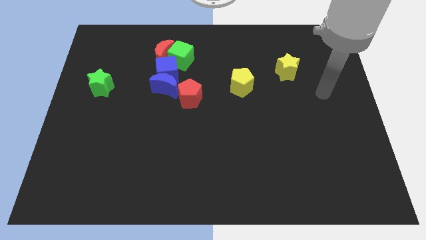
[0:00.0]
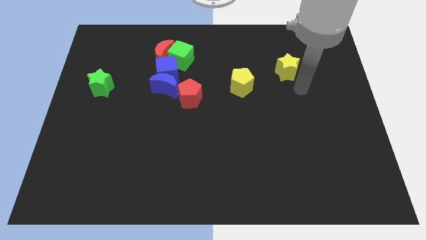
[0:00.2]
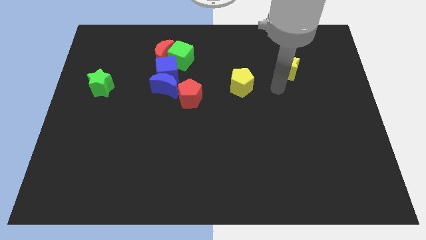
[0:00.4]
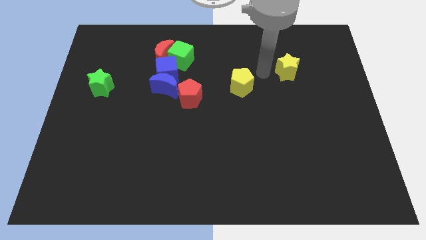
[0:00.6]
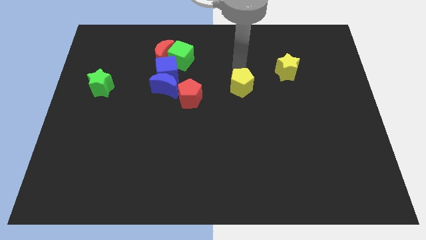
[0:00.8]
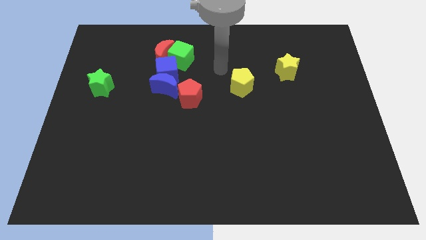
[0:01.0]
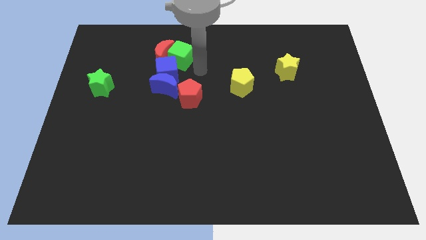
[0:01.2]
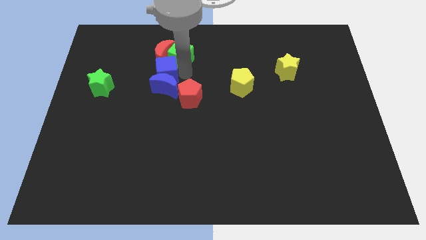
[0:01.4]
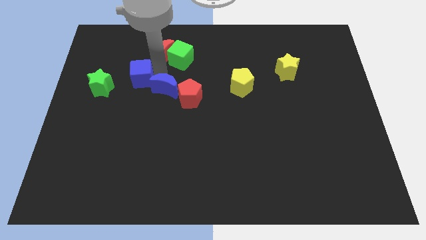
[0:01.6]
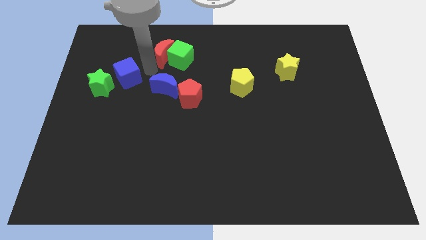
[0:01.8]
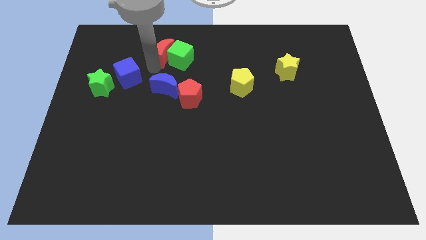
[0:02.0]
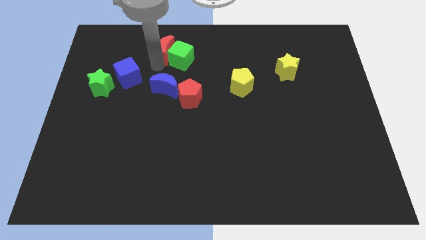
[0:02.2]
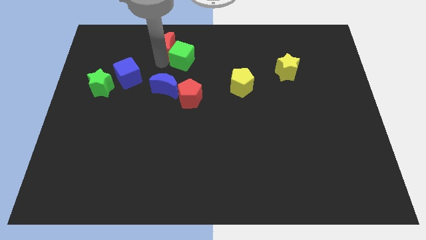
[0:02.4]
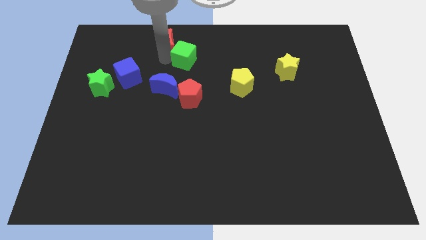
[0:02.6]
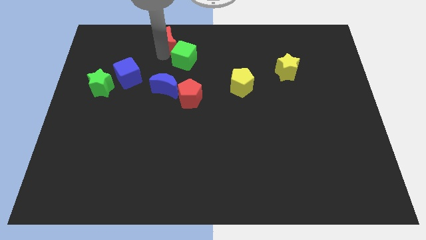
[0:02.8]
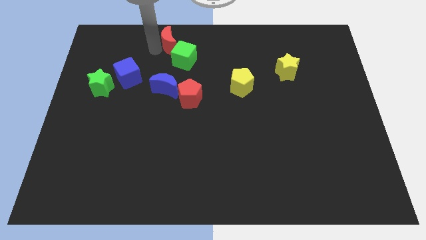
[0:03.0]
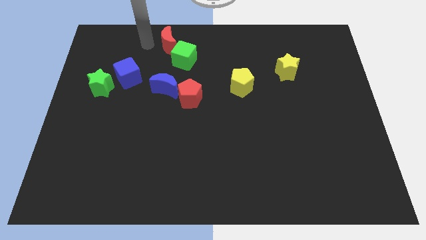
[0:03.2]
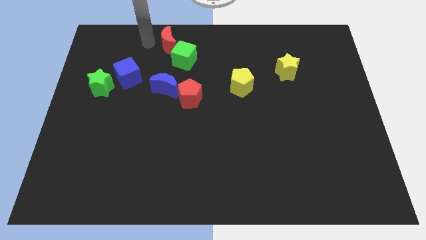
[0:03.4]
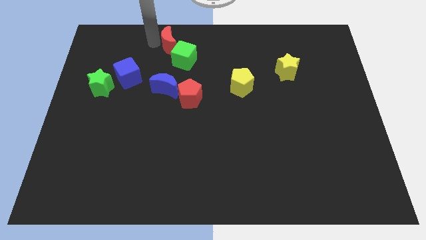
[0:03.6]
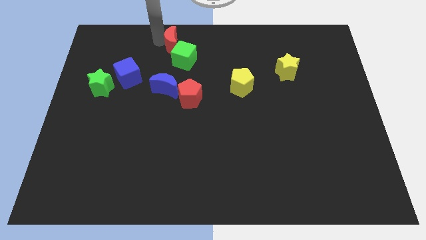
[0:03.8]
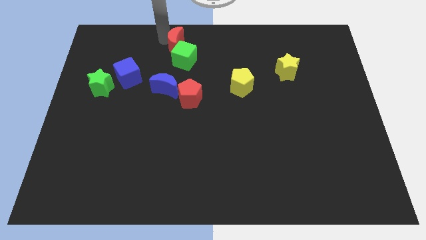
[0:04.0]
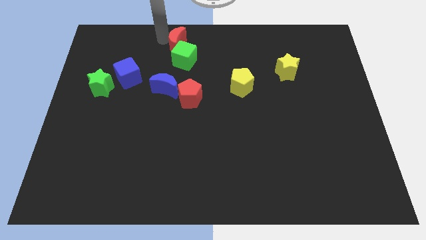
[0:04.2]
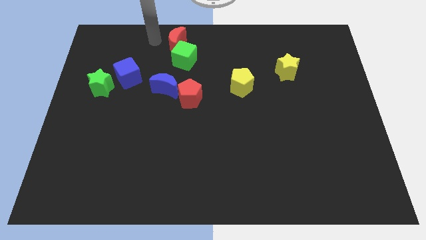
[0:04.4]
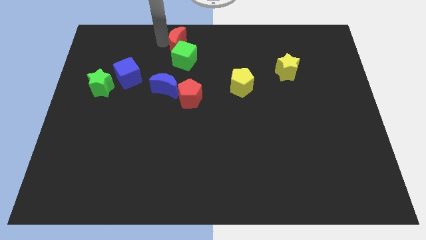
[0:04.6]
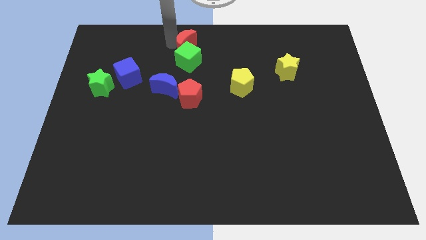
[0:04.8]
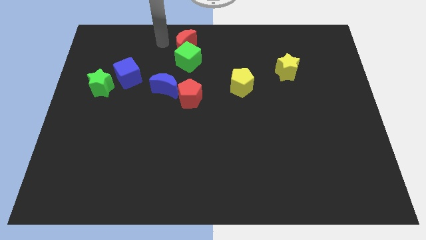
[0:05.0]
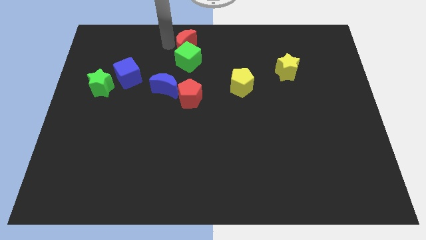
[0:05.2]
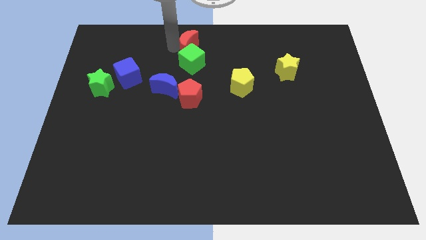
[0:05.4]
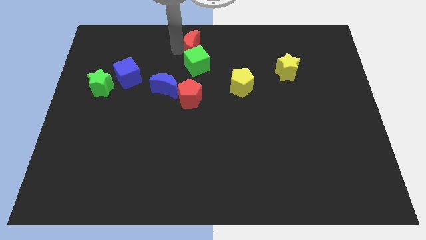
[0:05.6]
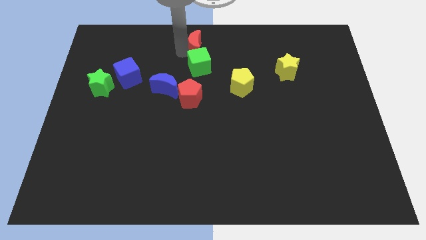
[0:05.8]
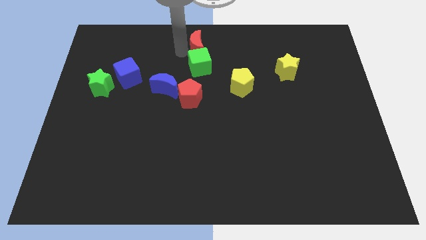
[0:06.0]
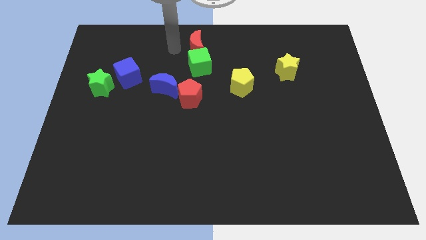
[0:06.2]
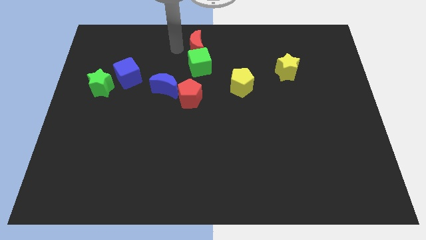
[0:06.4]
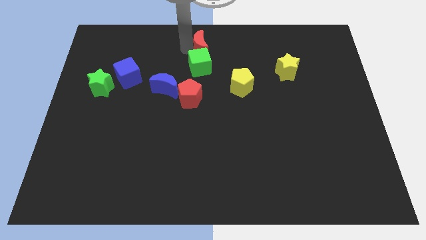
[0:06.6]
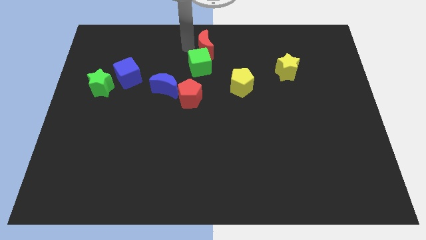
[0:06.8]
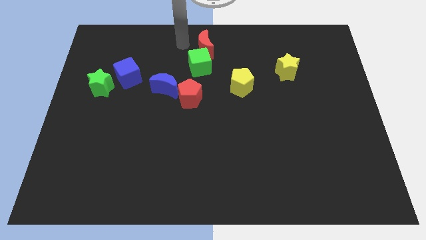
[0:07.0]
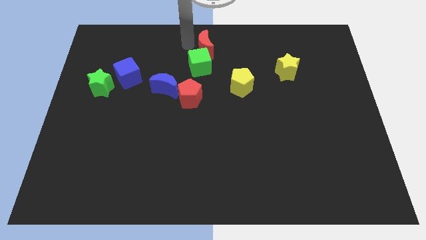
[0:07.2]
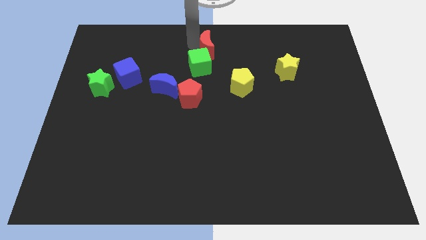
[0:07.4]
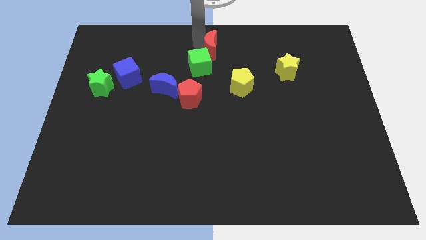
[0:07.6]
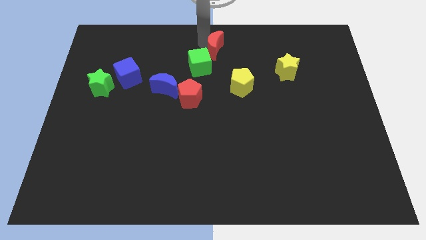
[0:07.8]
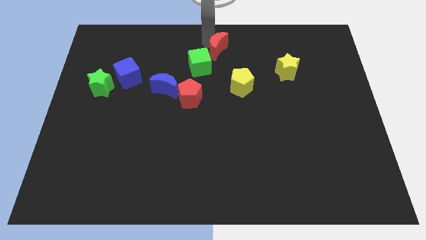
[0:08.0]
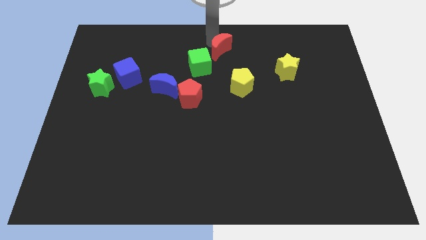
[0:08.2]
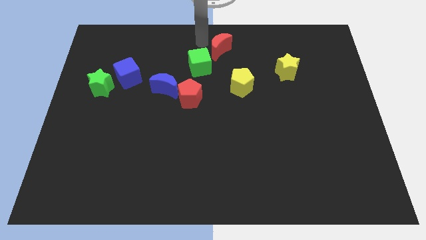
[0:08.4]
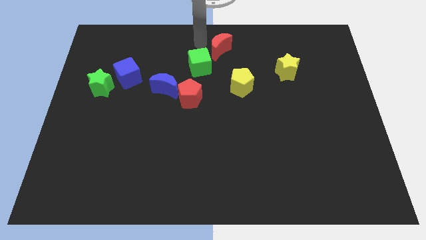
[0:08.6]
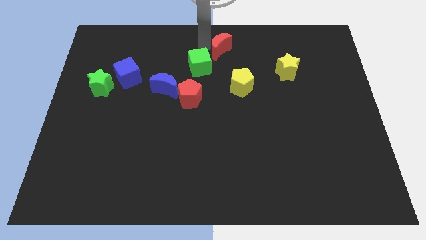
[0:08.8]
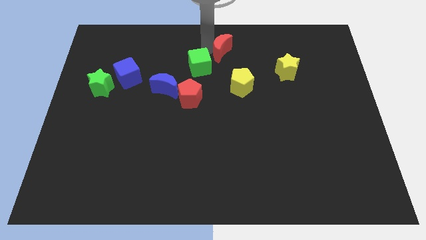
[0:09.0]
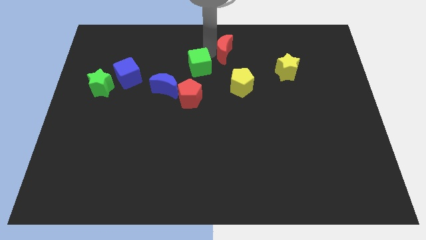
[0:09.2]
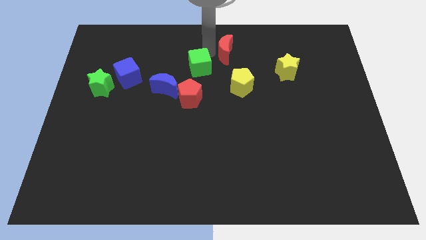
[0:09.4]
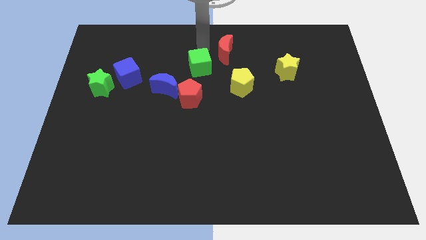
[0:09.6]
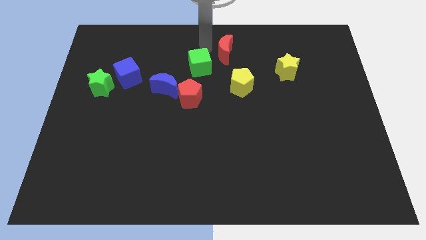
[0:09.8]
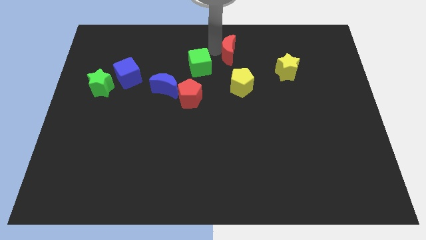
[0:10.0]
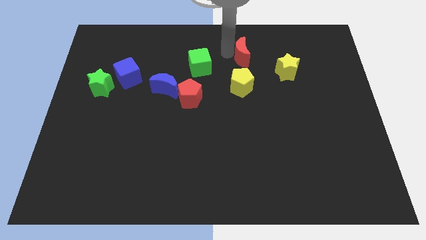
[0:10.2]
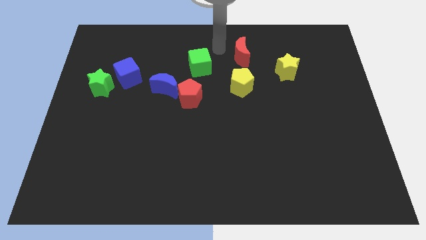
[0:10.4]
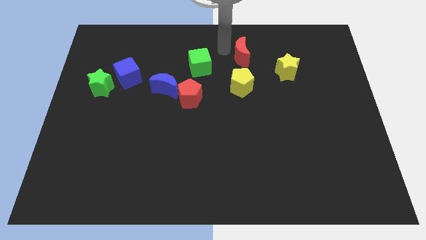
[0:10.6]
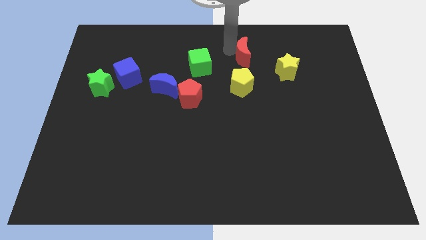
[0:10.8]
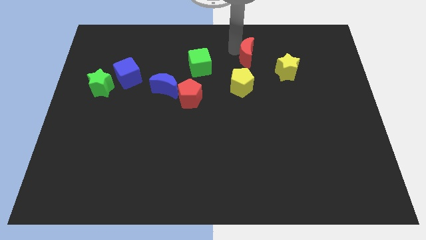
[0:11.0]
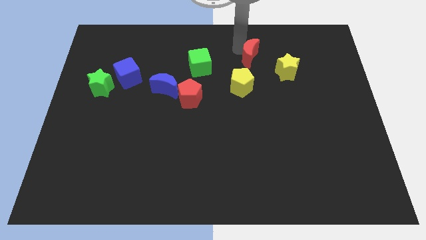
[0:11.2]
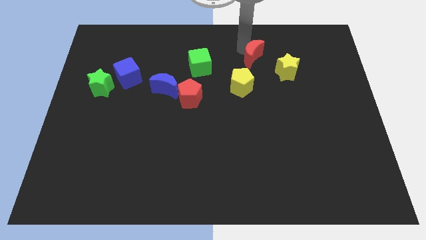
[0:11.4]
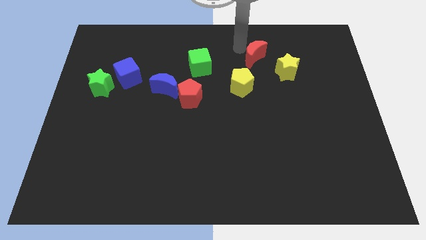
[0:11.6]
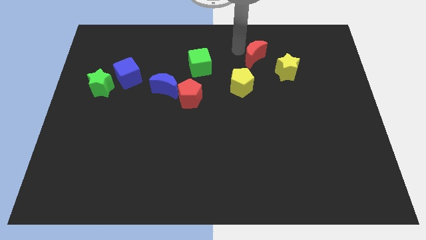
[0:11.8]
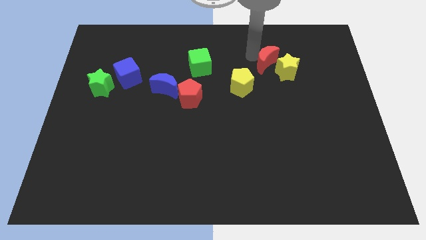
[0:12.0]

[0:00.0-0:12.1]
put the red moon towards the yellow star

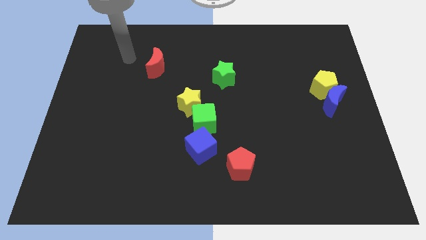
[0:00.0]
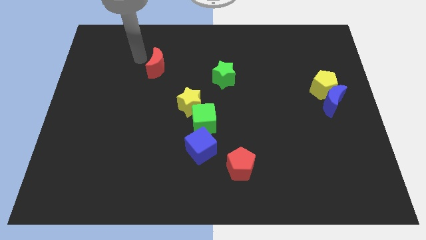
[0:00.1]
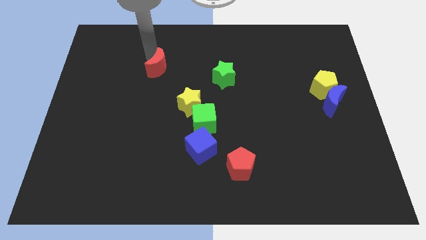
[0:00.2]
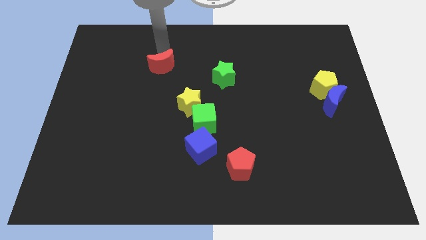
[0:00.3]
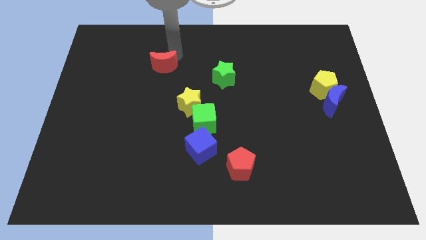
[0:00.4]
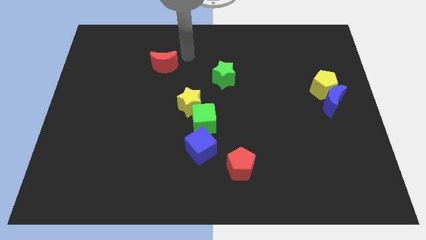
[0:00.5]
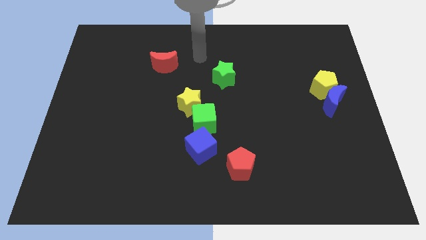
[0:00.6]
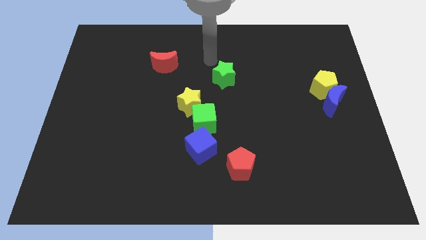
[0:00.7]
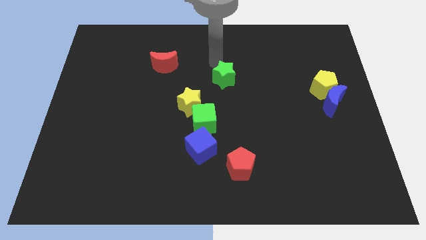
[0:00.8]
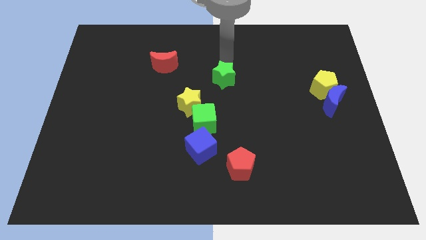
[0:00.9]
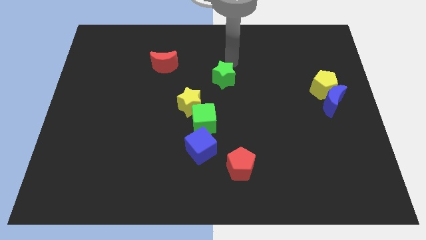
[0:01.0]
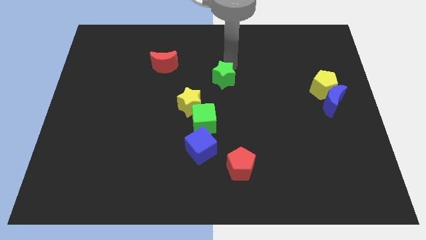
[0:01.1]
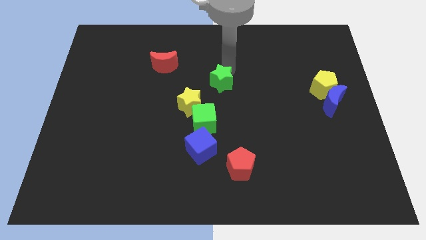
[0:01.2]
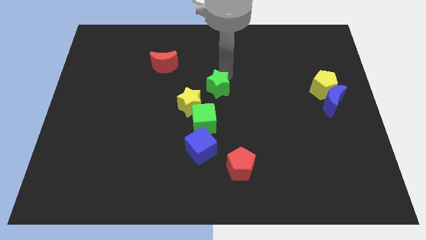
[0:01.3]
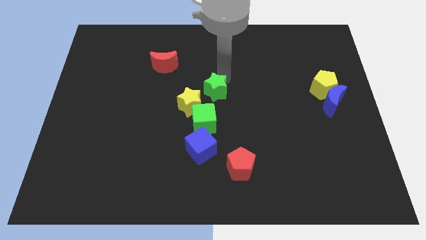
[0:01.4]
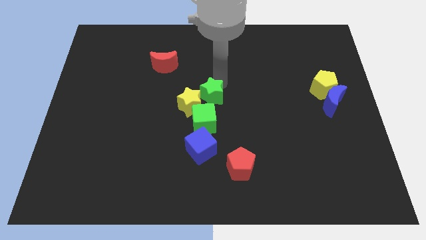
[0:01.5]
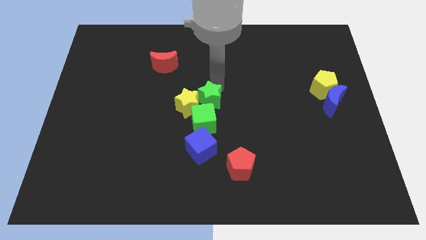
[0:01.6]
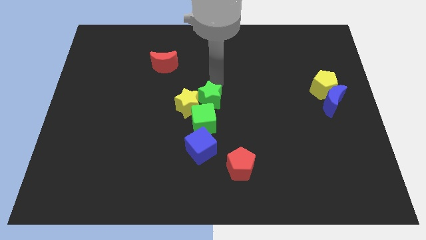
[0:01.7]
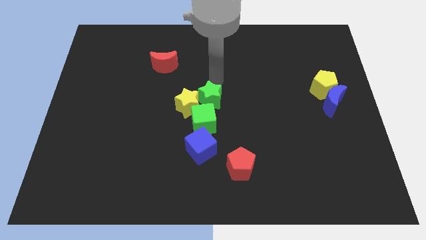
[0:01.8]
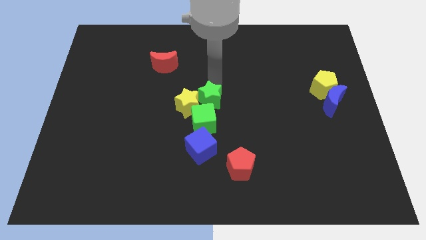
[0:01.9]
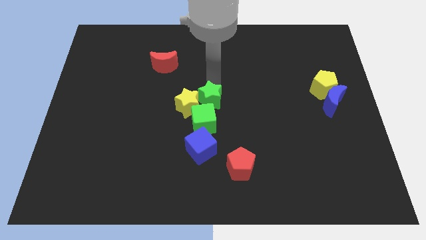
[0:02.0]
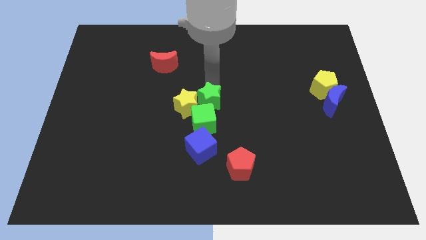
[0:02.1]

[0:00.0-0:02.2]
put the green star next to the green cube
